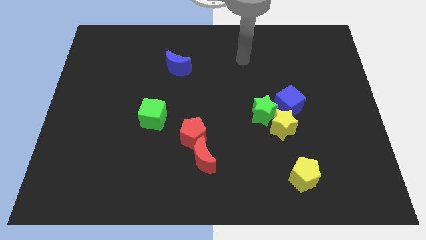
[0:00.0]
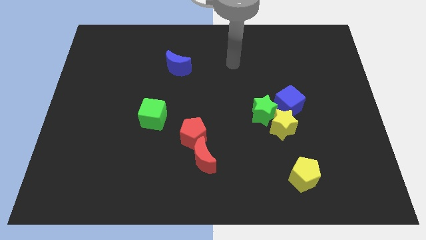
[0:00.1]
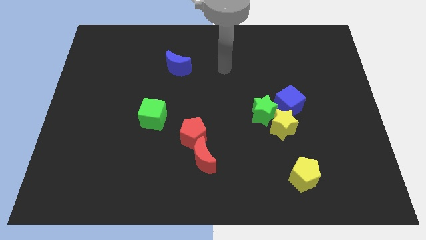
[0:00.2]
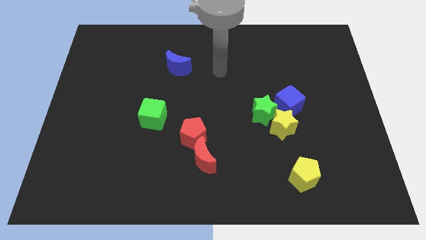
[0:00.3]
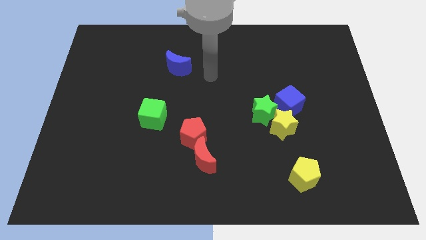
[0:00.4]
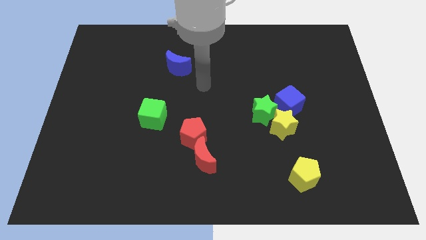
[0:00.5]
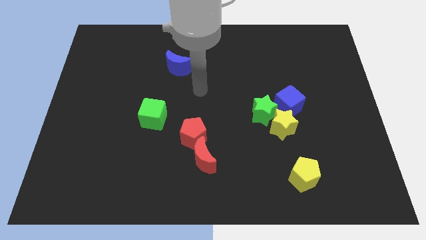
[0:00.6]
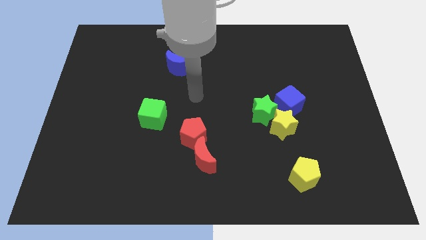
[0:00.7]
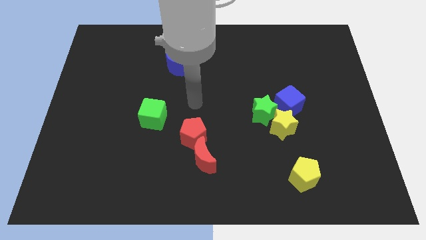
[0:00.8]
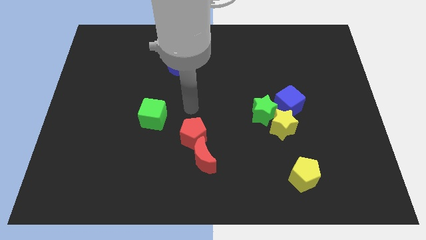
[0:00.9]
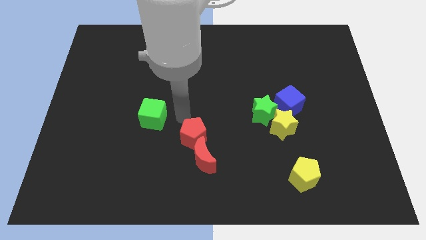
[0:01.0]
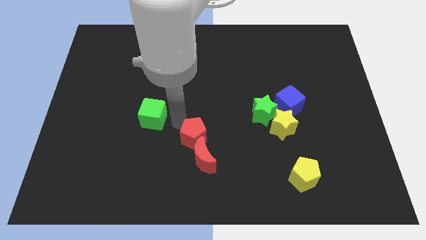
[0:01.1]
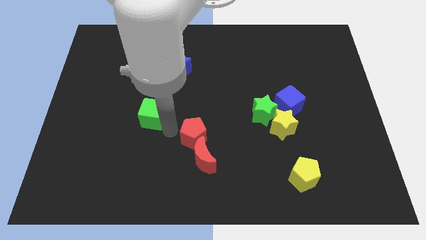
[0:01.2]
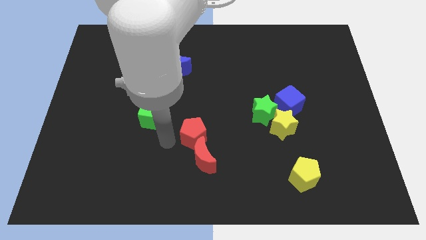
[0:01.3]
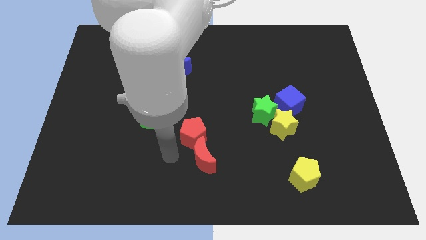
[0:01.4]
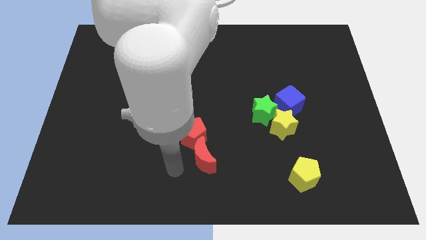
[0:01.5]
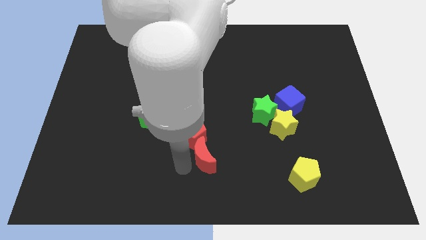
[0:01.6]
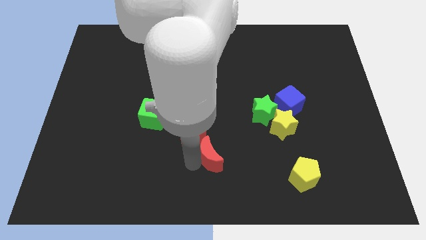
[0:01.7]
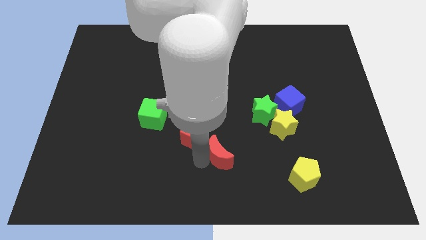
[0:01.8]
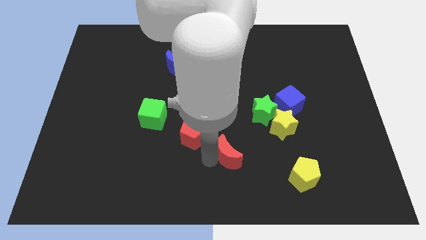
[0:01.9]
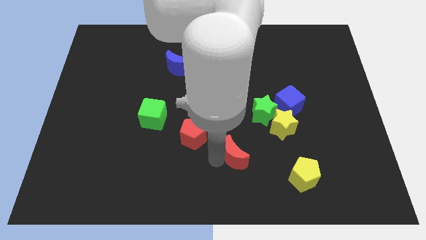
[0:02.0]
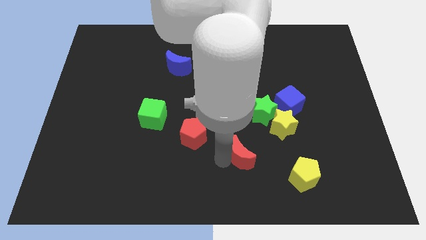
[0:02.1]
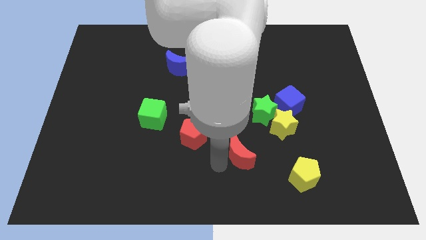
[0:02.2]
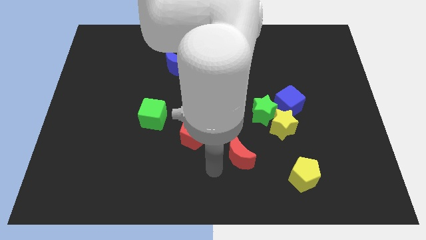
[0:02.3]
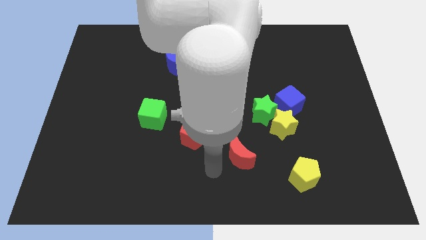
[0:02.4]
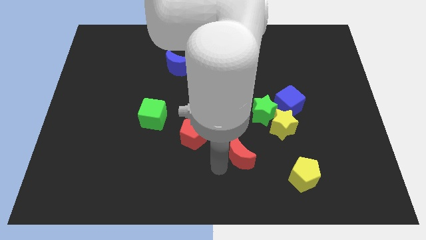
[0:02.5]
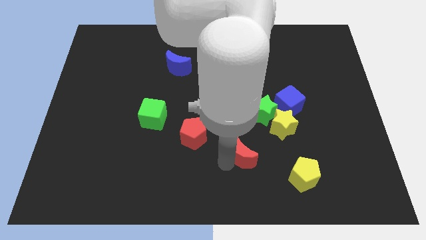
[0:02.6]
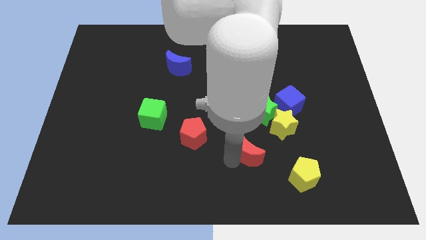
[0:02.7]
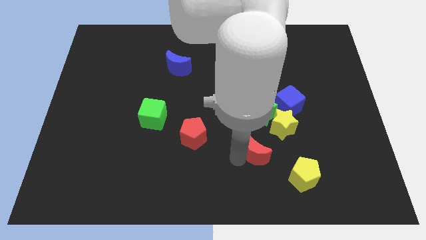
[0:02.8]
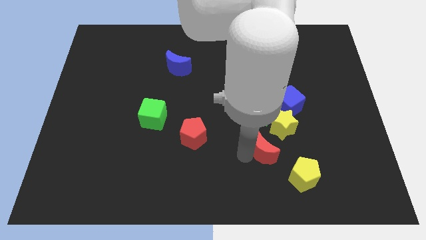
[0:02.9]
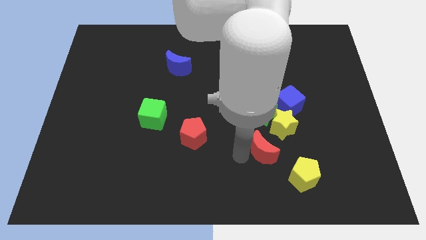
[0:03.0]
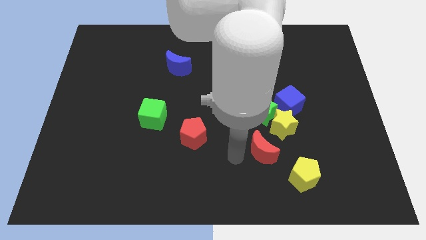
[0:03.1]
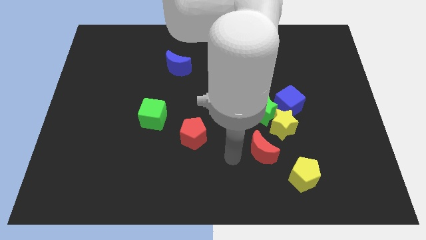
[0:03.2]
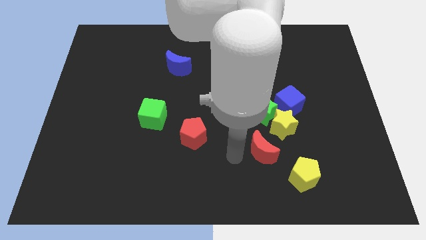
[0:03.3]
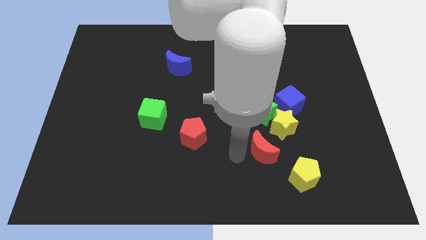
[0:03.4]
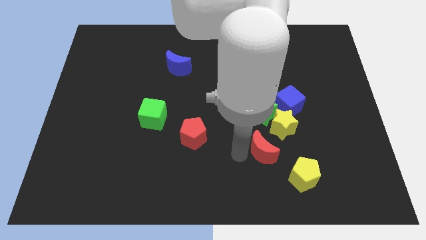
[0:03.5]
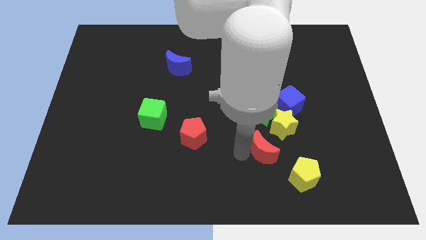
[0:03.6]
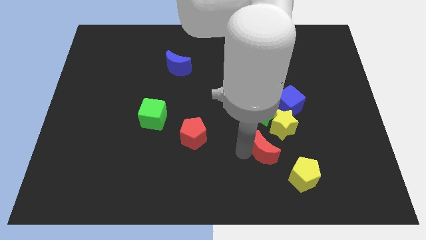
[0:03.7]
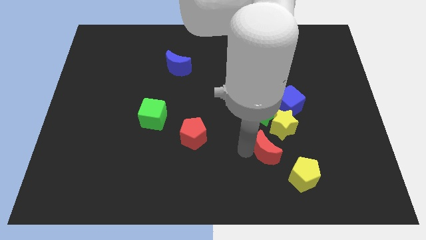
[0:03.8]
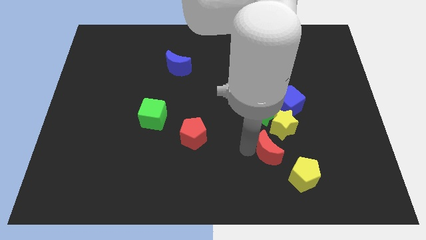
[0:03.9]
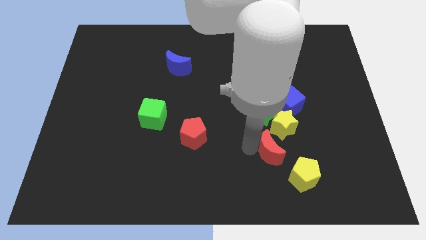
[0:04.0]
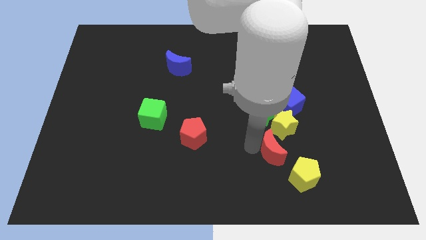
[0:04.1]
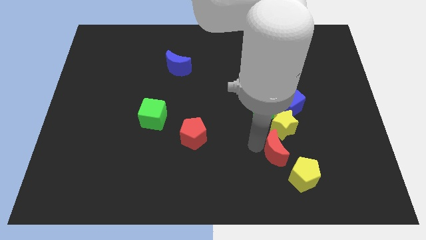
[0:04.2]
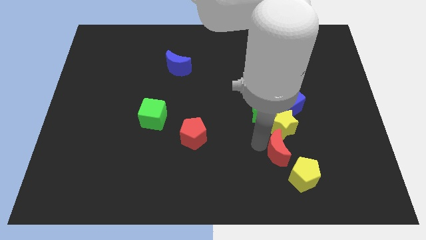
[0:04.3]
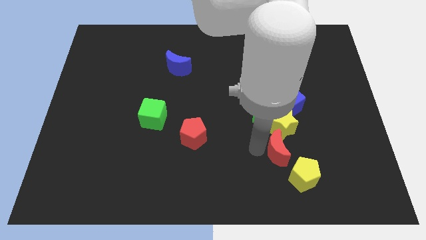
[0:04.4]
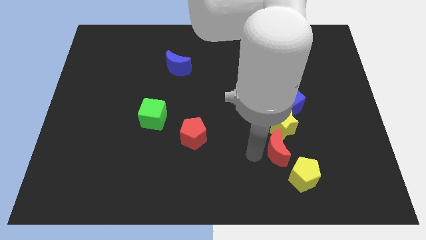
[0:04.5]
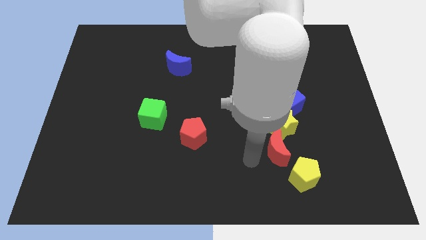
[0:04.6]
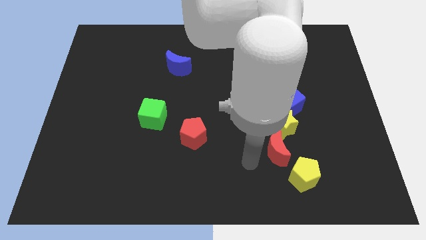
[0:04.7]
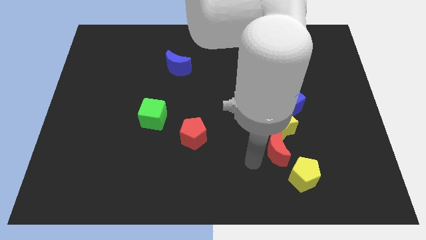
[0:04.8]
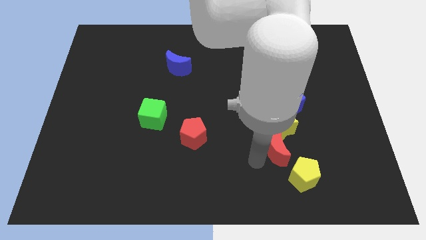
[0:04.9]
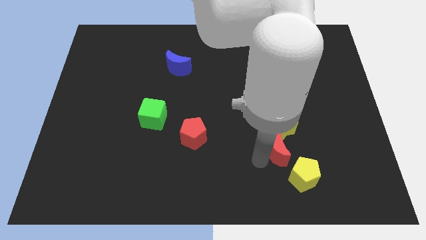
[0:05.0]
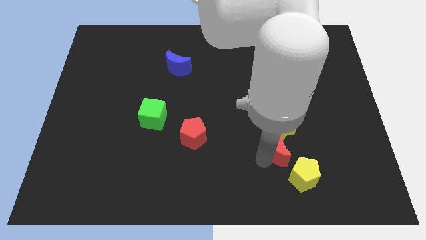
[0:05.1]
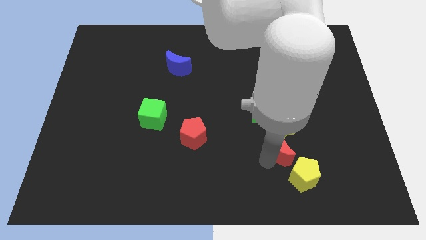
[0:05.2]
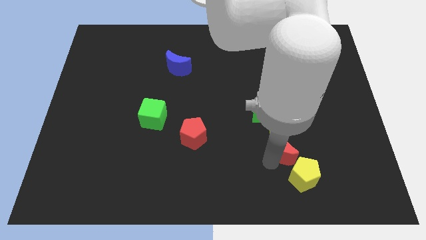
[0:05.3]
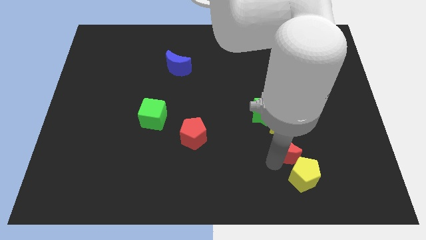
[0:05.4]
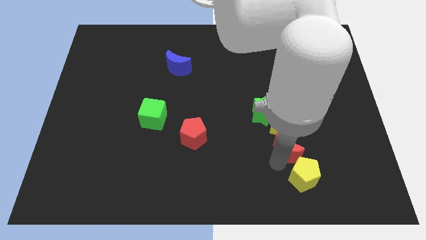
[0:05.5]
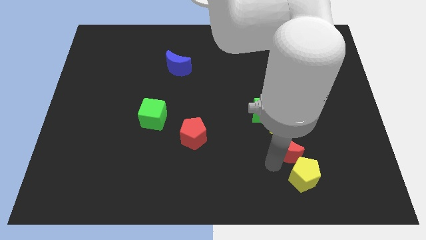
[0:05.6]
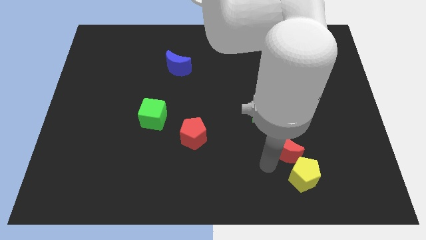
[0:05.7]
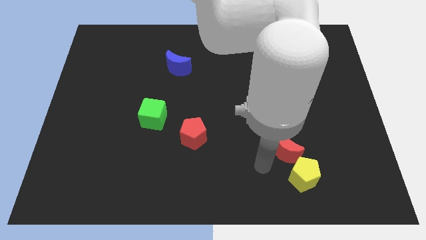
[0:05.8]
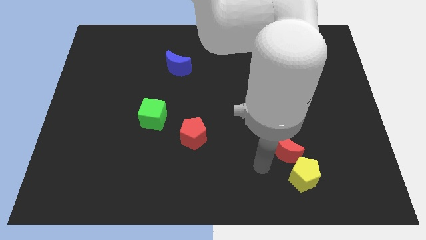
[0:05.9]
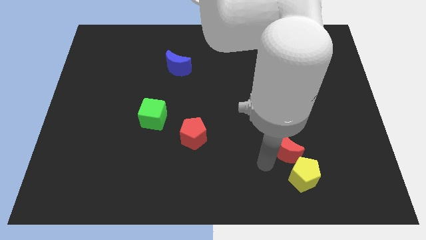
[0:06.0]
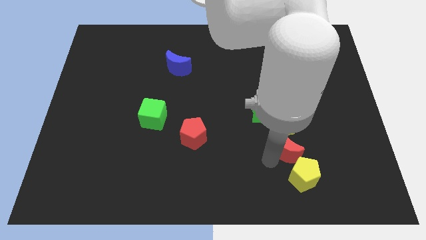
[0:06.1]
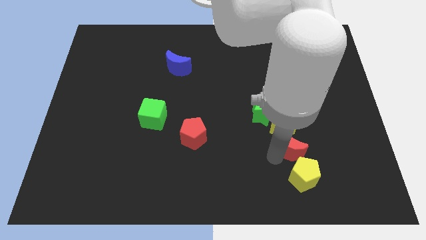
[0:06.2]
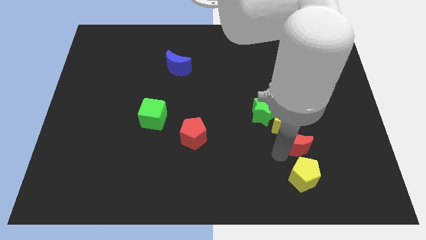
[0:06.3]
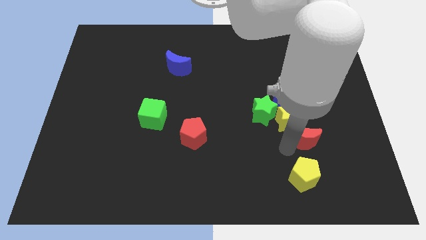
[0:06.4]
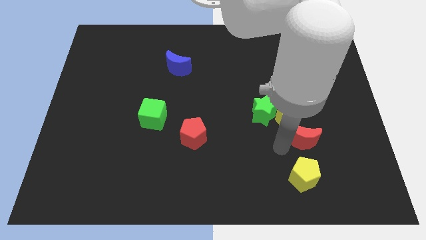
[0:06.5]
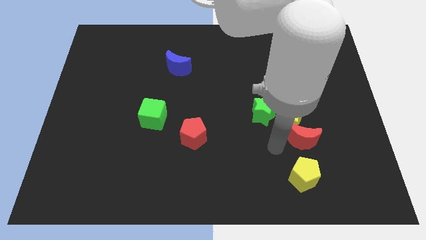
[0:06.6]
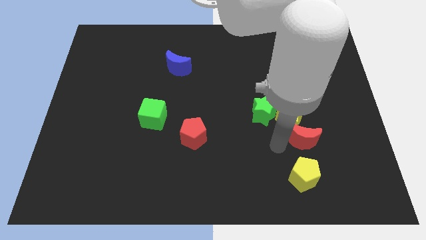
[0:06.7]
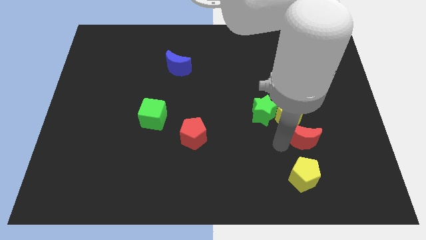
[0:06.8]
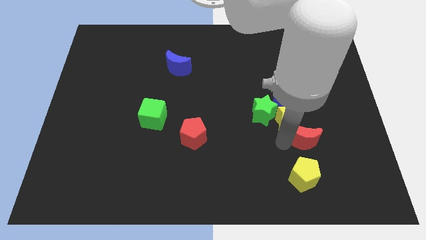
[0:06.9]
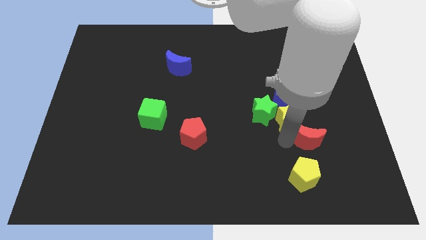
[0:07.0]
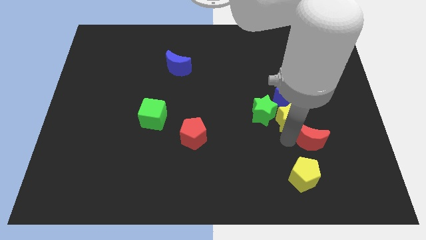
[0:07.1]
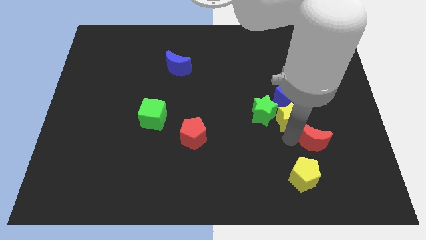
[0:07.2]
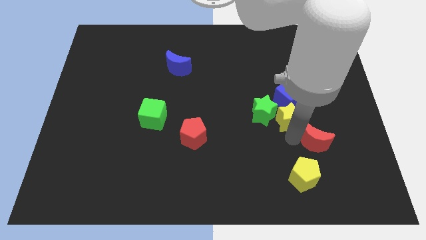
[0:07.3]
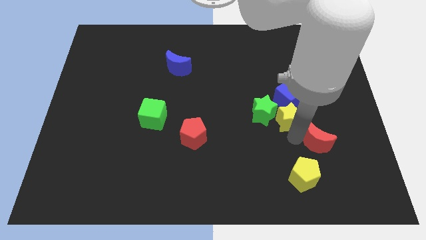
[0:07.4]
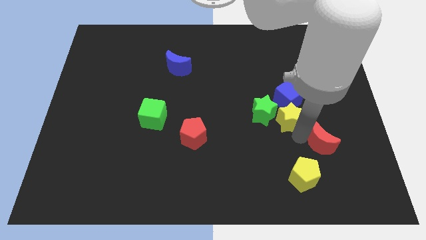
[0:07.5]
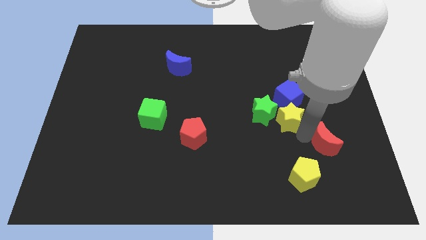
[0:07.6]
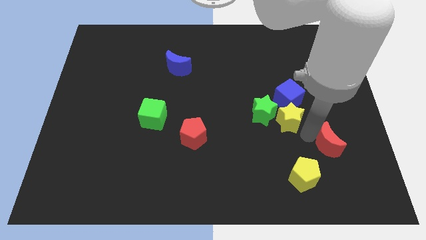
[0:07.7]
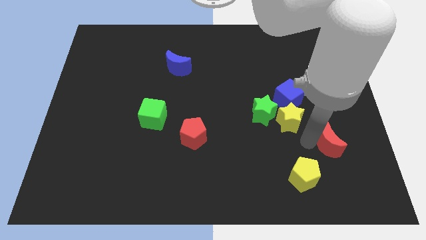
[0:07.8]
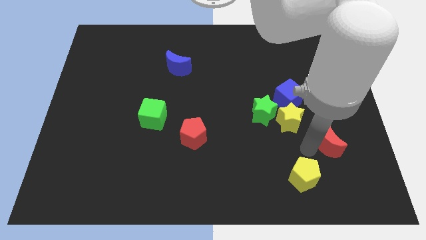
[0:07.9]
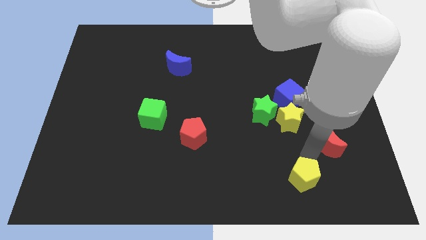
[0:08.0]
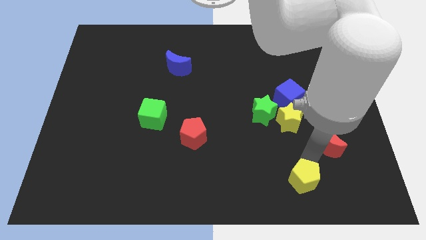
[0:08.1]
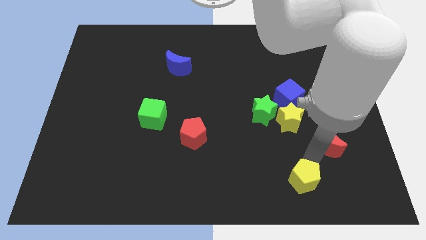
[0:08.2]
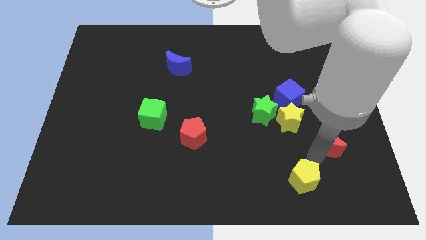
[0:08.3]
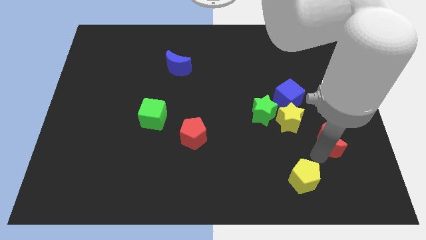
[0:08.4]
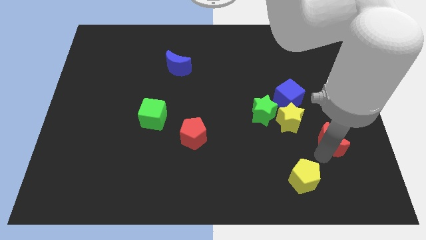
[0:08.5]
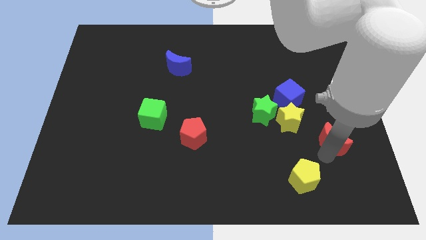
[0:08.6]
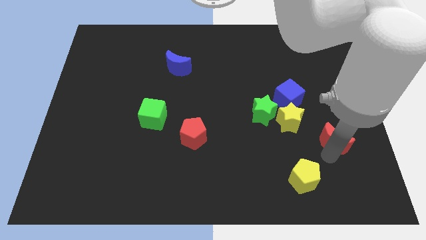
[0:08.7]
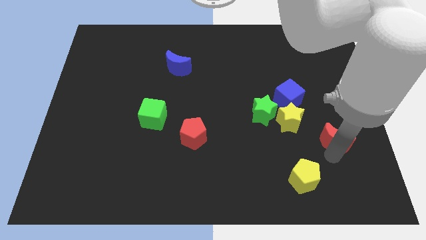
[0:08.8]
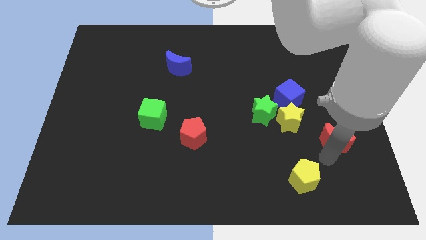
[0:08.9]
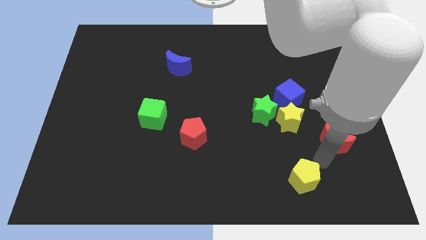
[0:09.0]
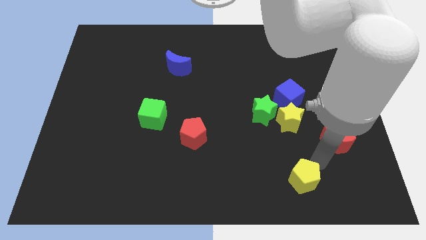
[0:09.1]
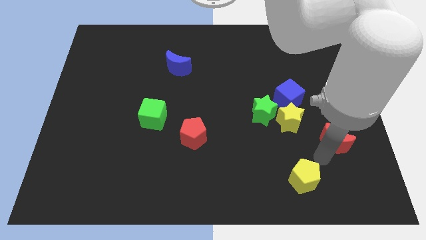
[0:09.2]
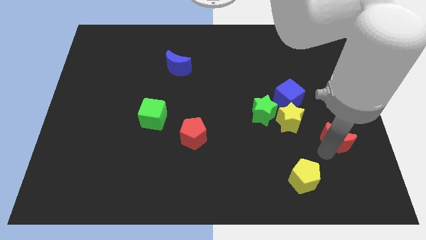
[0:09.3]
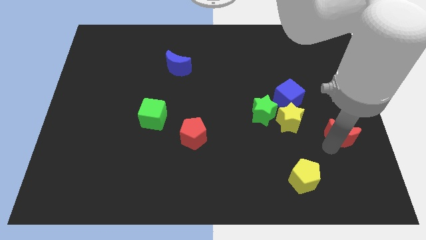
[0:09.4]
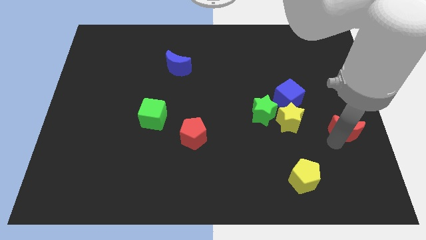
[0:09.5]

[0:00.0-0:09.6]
put the red moon to the right side of the board
